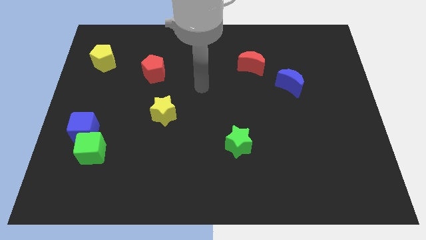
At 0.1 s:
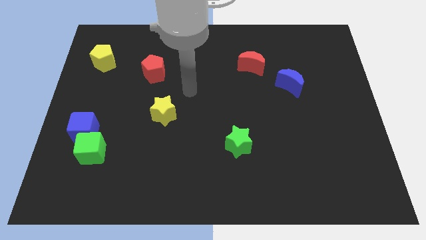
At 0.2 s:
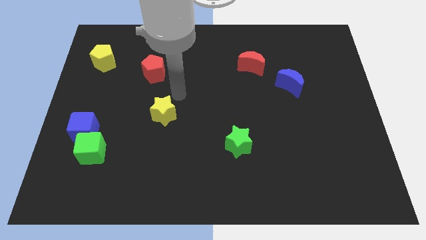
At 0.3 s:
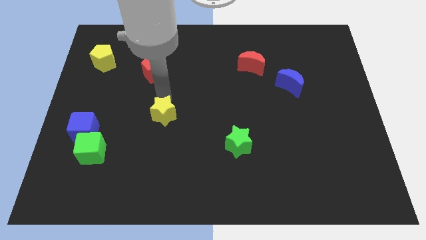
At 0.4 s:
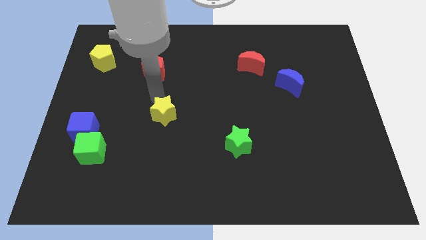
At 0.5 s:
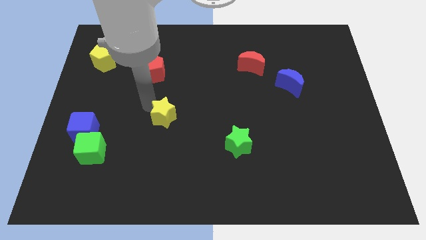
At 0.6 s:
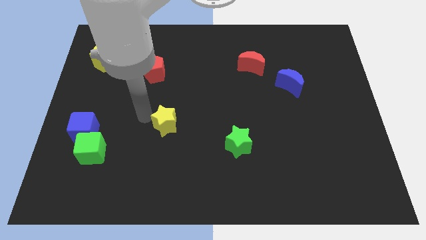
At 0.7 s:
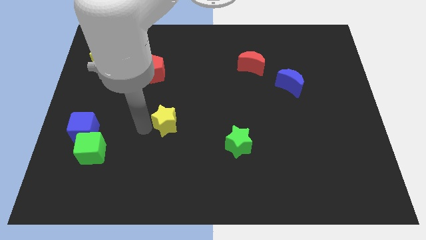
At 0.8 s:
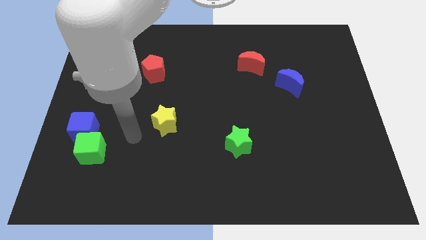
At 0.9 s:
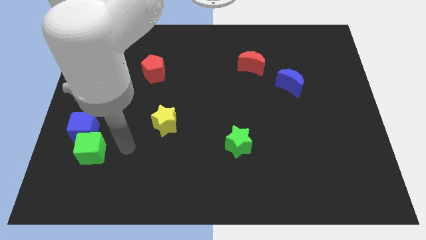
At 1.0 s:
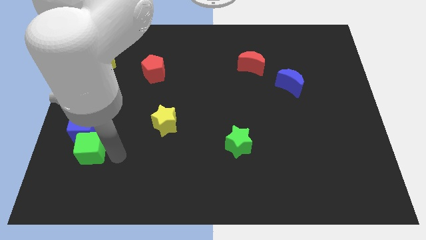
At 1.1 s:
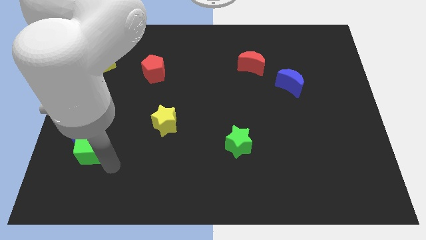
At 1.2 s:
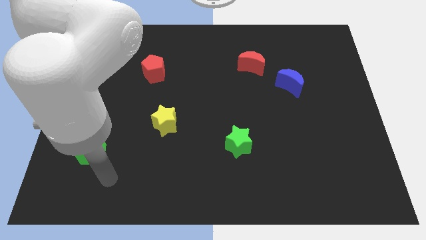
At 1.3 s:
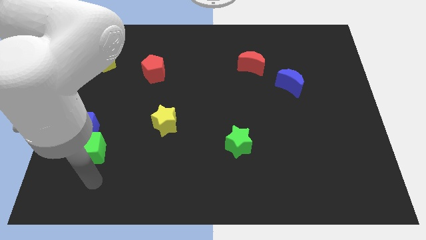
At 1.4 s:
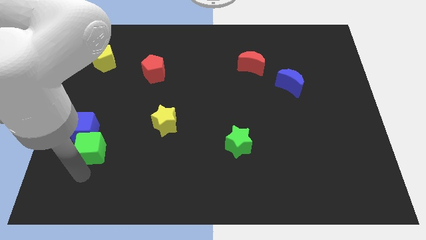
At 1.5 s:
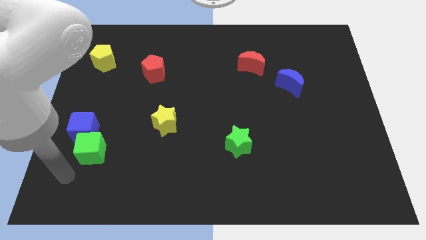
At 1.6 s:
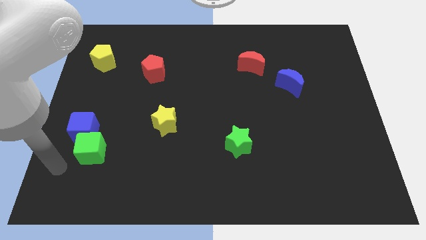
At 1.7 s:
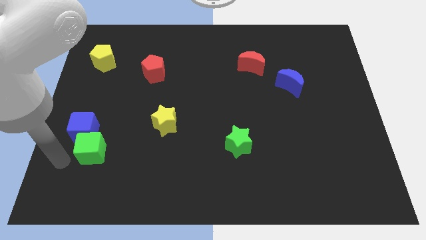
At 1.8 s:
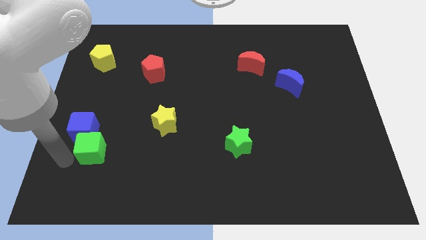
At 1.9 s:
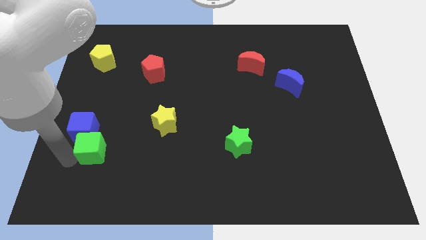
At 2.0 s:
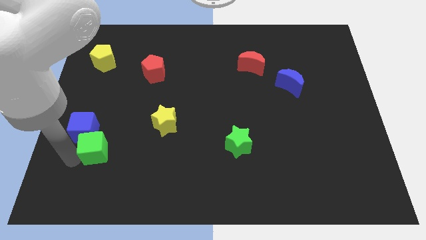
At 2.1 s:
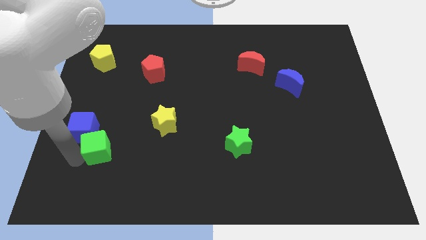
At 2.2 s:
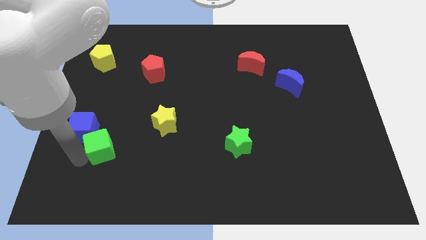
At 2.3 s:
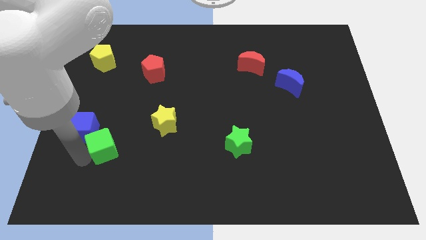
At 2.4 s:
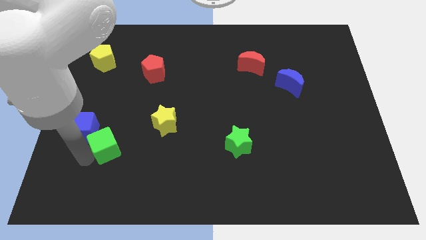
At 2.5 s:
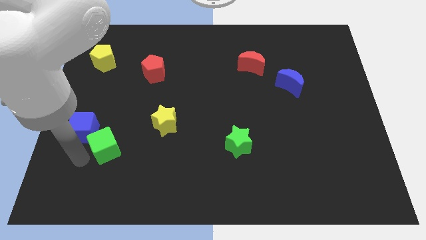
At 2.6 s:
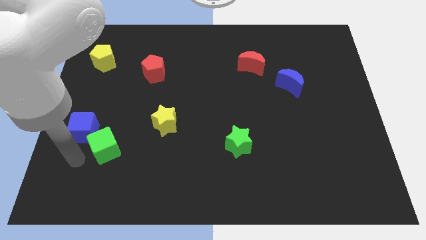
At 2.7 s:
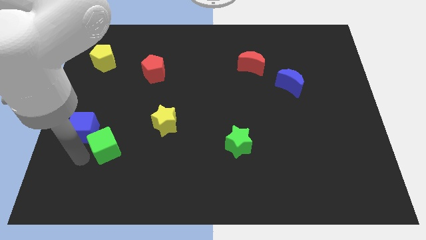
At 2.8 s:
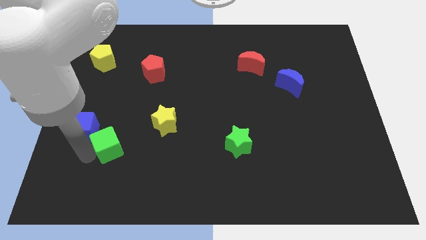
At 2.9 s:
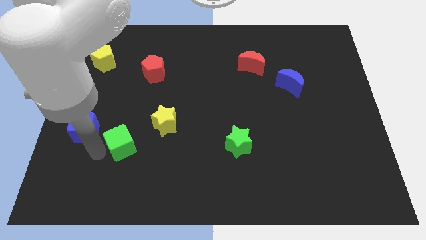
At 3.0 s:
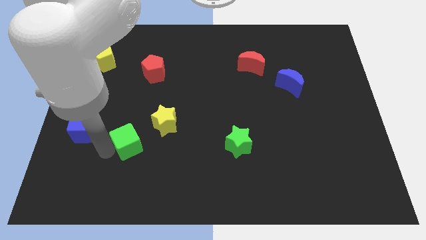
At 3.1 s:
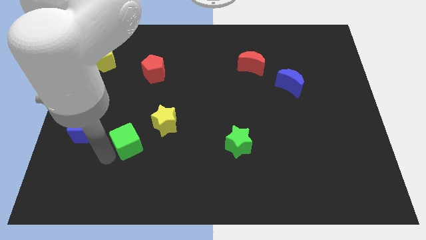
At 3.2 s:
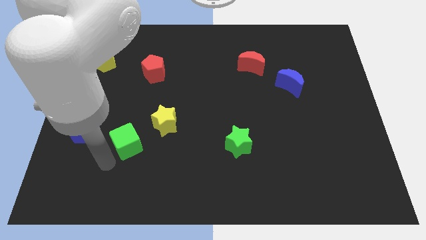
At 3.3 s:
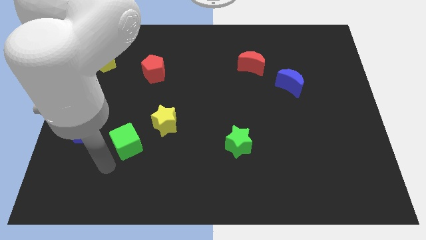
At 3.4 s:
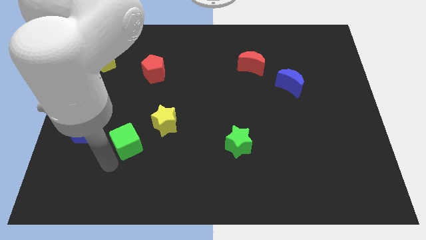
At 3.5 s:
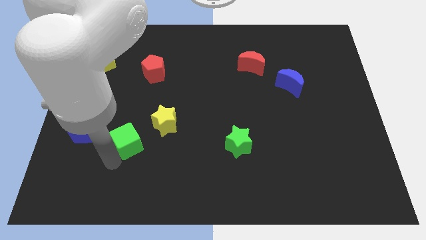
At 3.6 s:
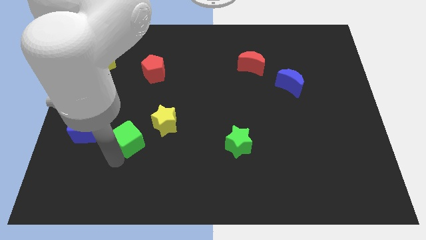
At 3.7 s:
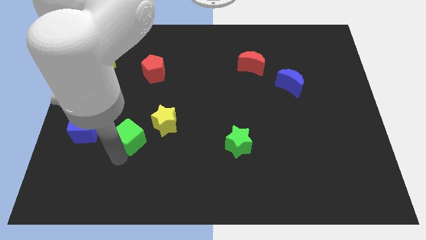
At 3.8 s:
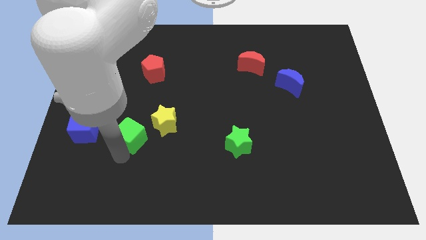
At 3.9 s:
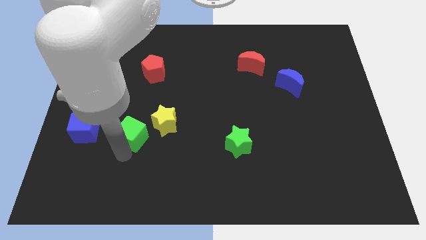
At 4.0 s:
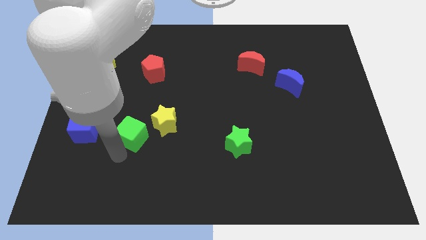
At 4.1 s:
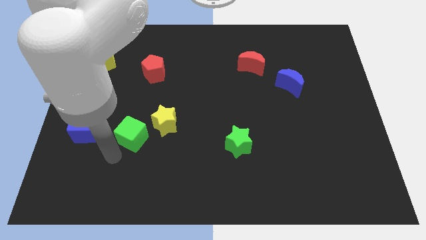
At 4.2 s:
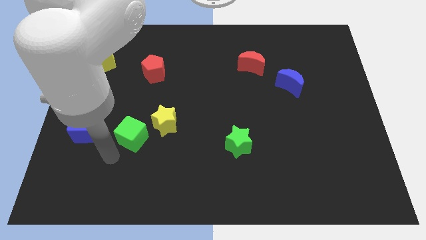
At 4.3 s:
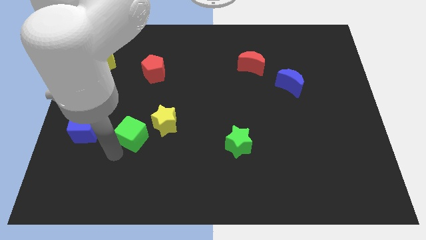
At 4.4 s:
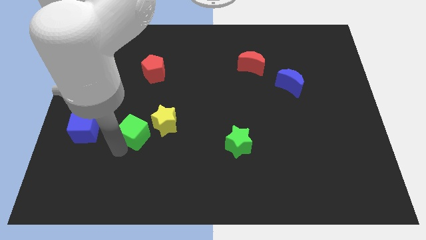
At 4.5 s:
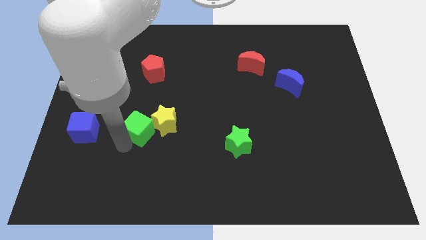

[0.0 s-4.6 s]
push the green cube to the yellow star

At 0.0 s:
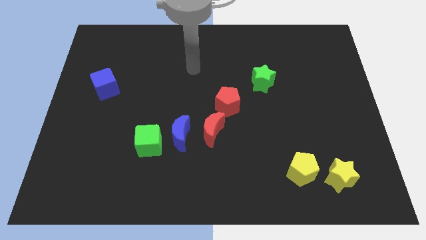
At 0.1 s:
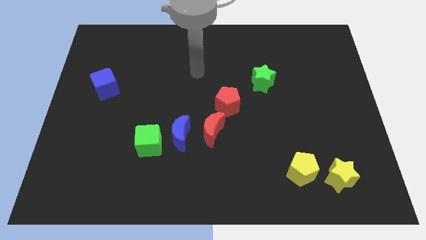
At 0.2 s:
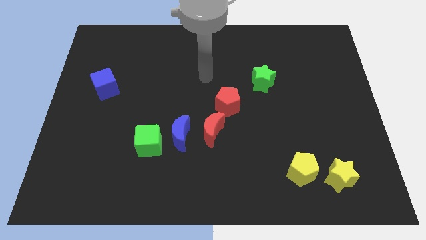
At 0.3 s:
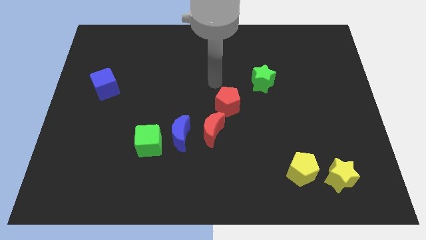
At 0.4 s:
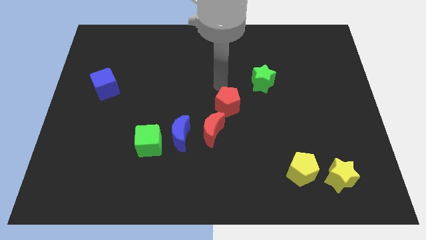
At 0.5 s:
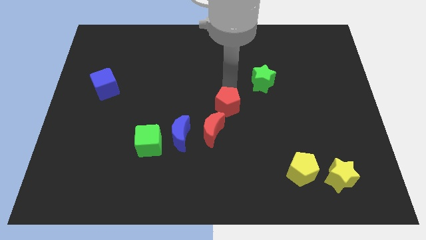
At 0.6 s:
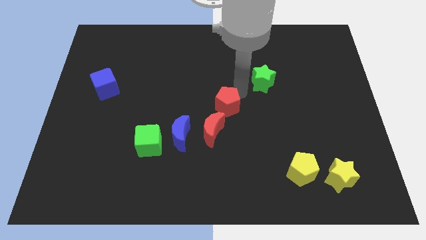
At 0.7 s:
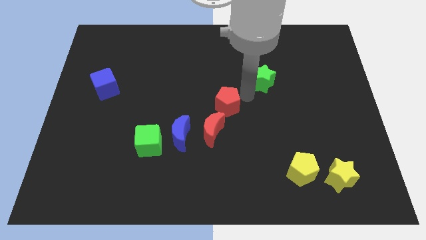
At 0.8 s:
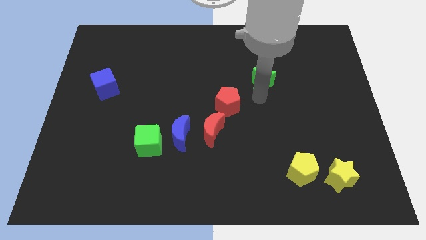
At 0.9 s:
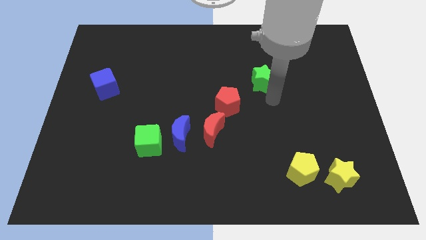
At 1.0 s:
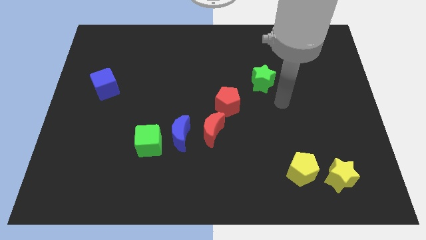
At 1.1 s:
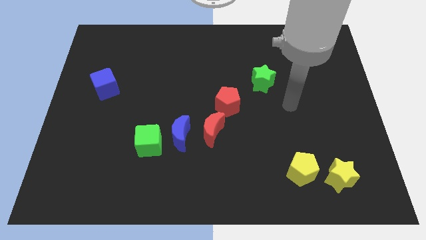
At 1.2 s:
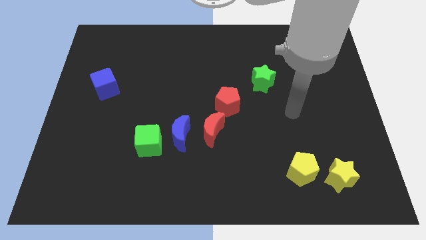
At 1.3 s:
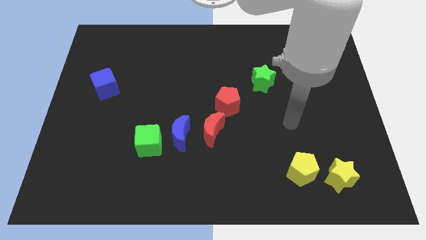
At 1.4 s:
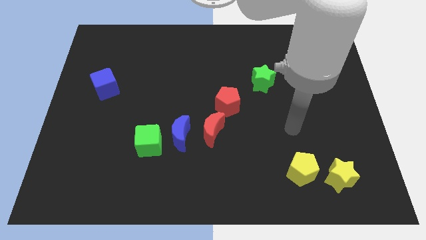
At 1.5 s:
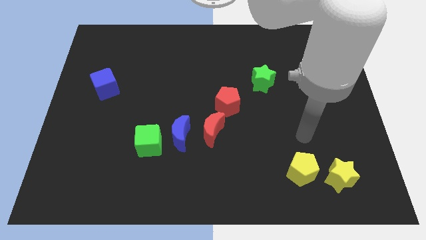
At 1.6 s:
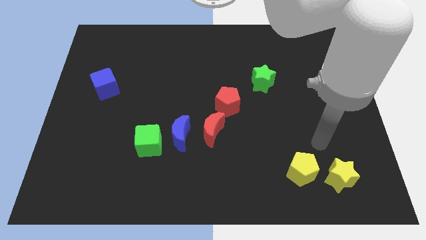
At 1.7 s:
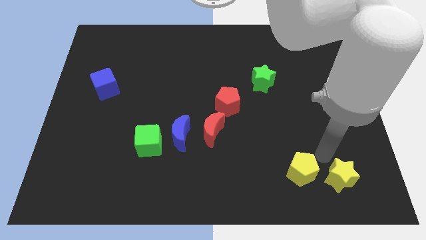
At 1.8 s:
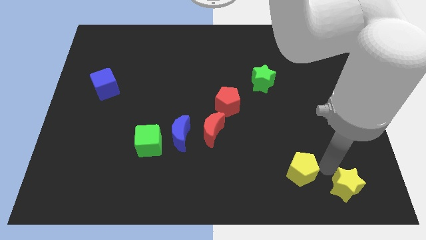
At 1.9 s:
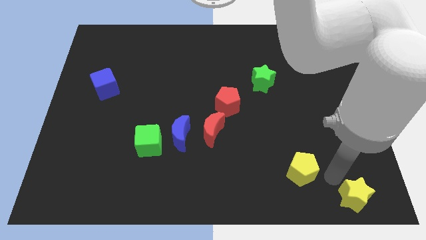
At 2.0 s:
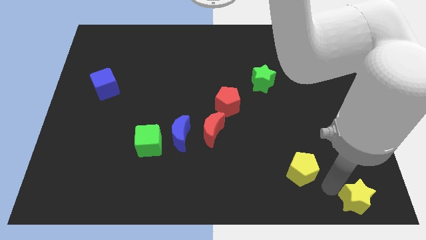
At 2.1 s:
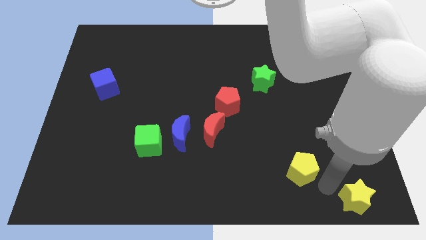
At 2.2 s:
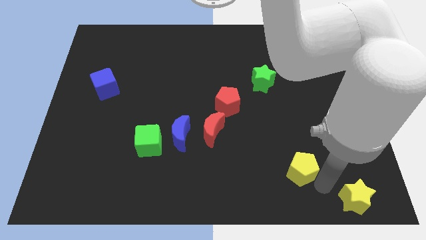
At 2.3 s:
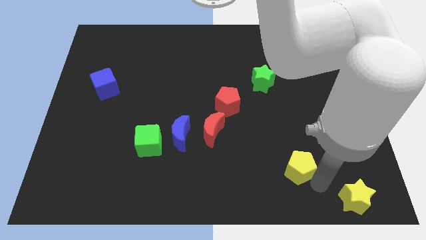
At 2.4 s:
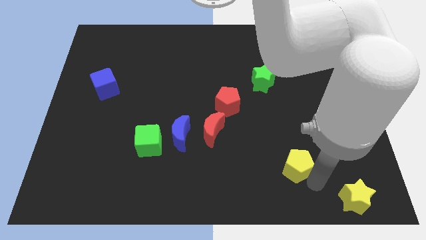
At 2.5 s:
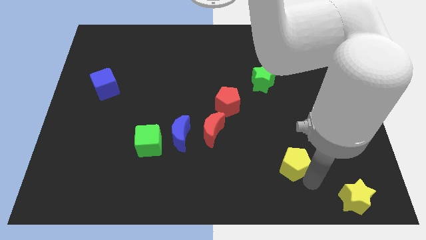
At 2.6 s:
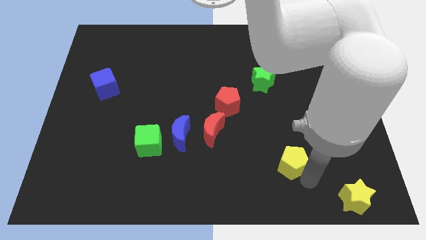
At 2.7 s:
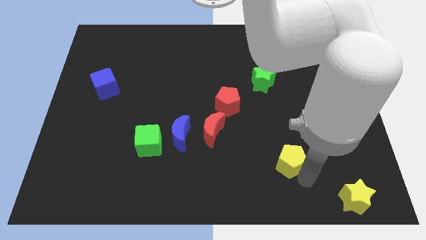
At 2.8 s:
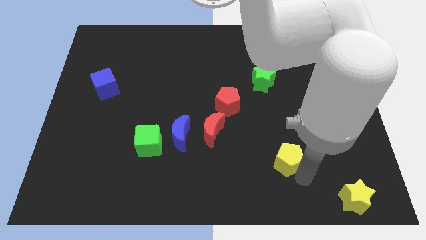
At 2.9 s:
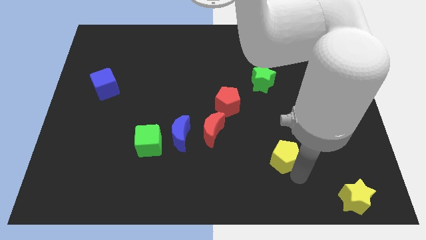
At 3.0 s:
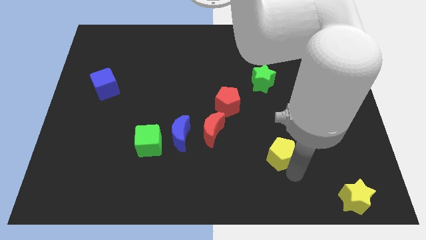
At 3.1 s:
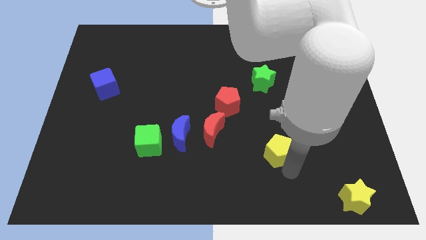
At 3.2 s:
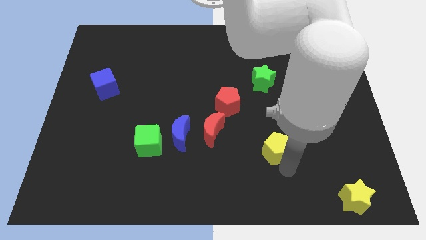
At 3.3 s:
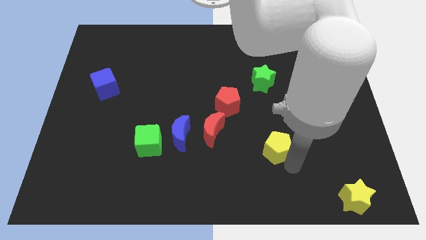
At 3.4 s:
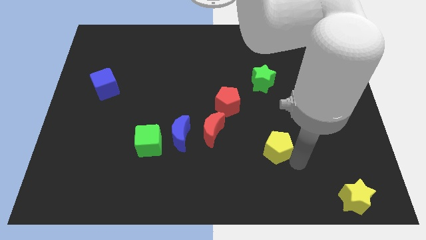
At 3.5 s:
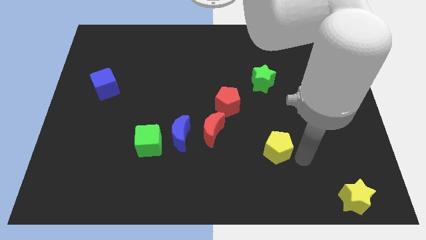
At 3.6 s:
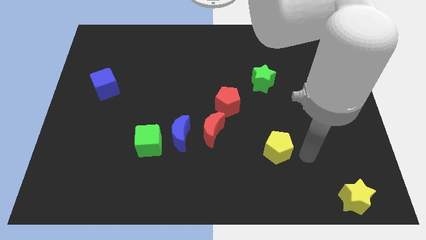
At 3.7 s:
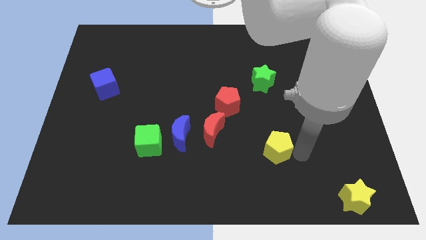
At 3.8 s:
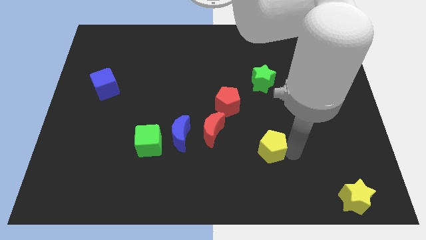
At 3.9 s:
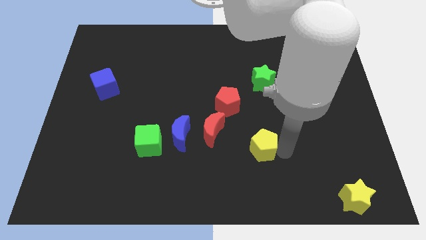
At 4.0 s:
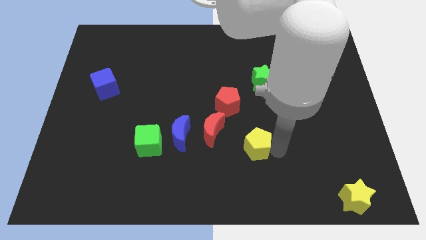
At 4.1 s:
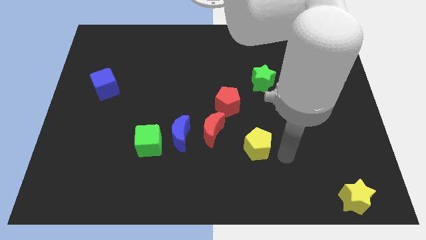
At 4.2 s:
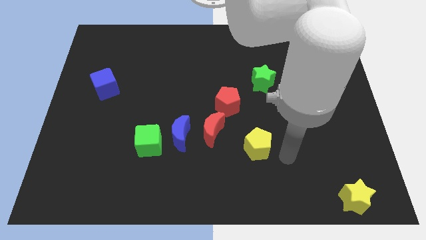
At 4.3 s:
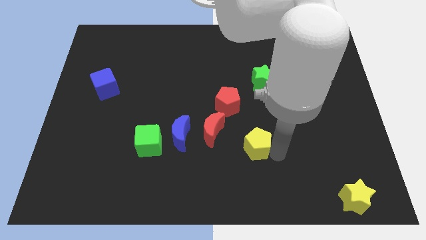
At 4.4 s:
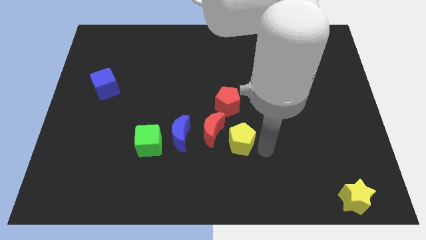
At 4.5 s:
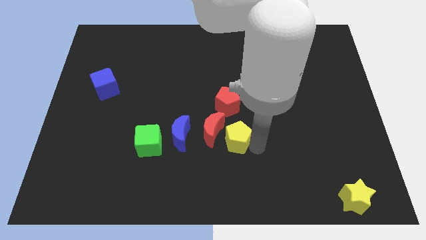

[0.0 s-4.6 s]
slide the yellow pentagon towards the red moon
